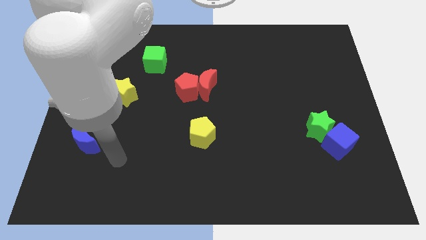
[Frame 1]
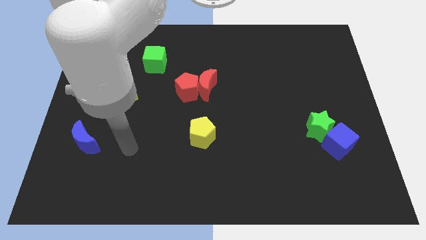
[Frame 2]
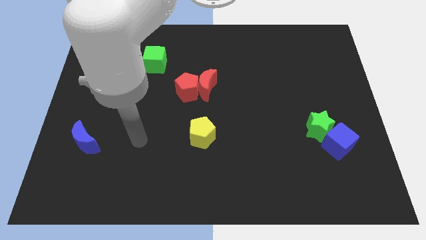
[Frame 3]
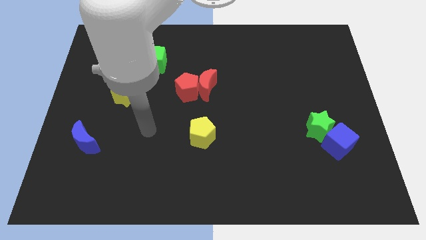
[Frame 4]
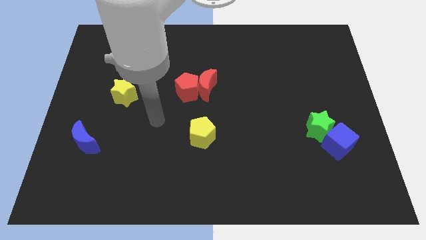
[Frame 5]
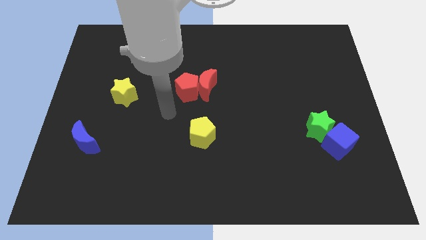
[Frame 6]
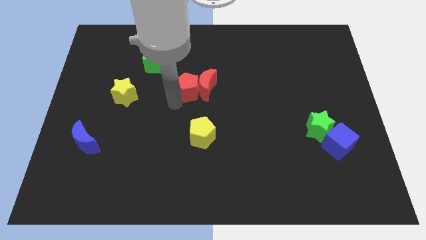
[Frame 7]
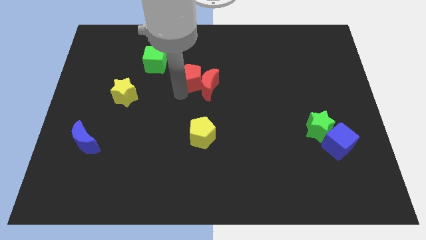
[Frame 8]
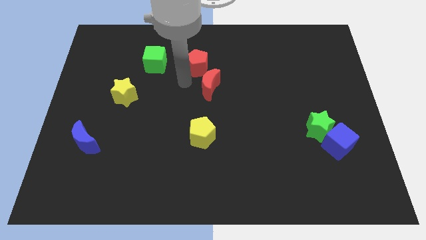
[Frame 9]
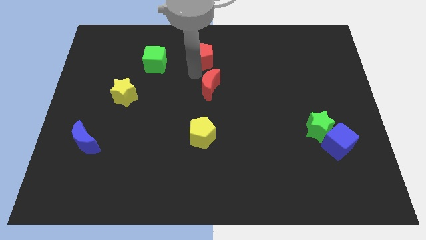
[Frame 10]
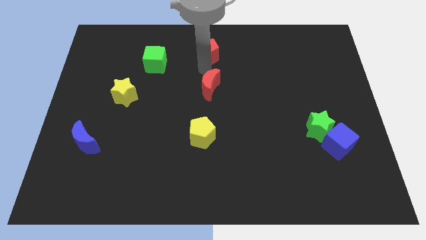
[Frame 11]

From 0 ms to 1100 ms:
separate the red moon from the red pentagon

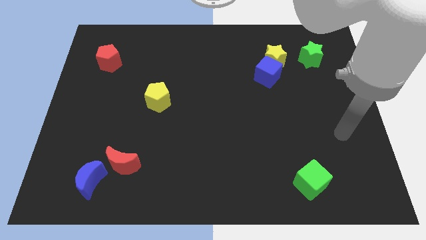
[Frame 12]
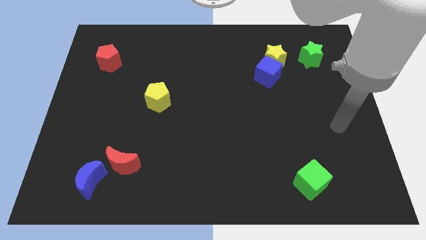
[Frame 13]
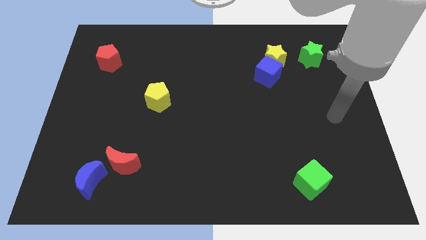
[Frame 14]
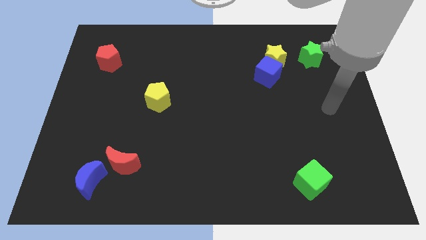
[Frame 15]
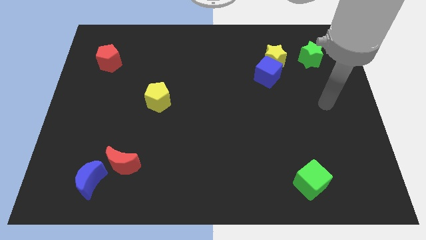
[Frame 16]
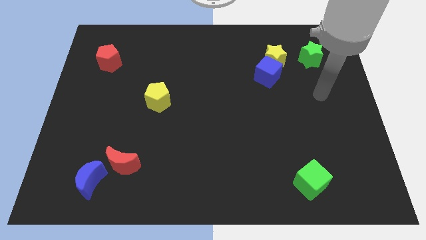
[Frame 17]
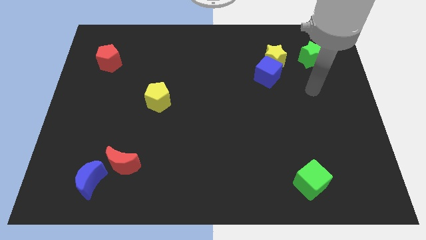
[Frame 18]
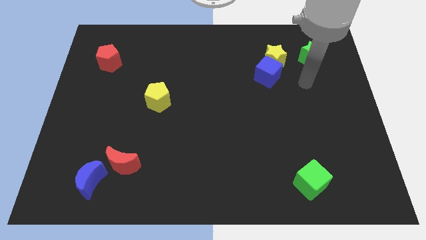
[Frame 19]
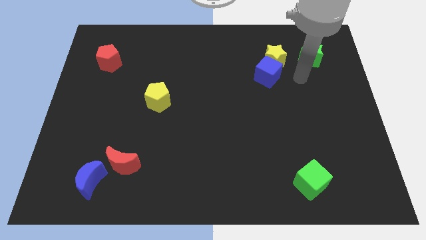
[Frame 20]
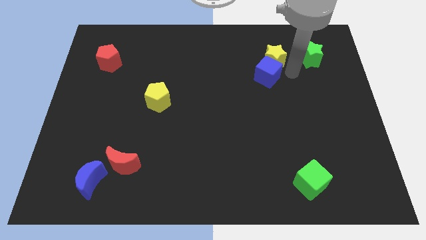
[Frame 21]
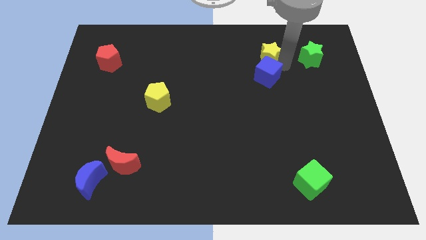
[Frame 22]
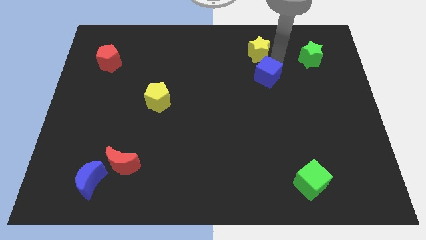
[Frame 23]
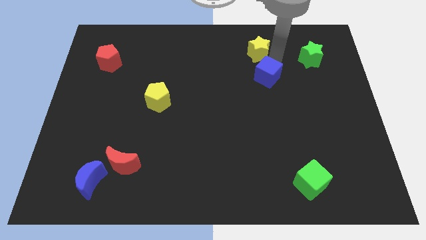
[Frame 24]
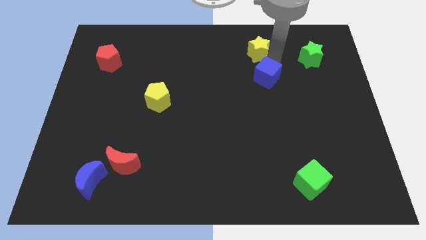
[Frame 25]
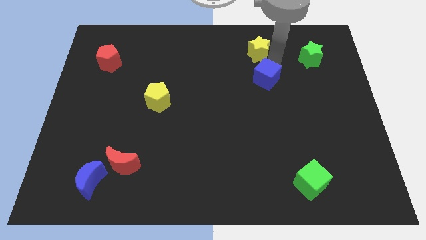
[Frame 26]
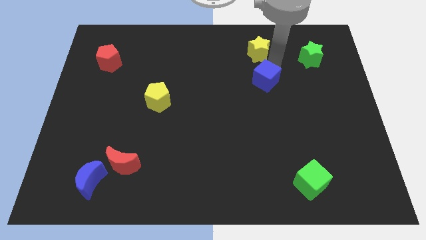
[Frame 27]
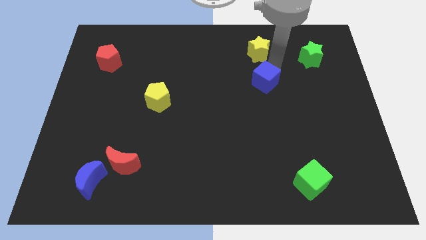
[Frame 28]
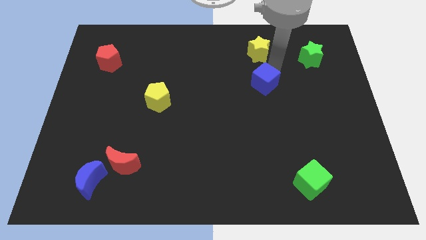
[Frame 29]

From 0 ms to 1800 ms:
separate the blue cube from the yellow star

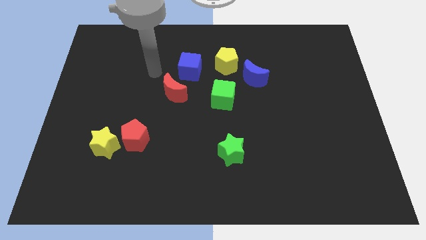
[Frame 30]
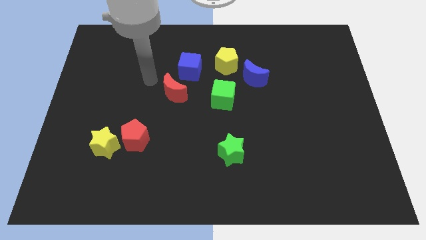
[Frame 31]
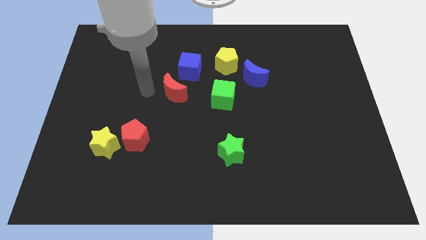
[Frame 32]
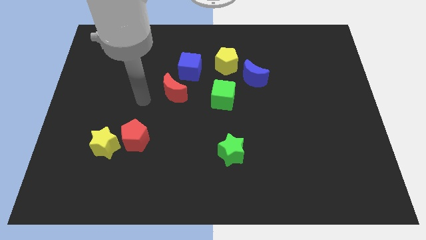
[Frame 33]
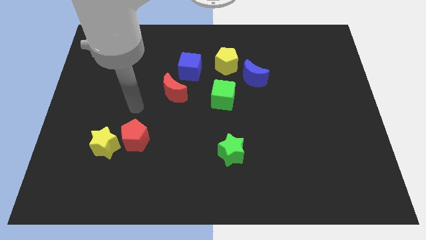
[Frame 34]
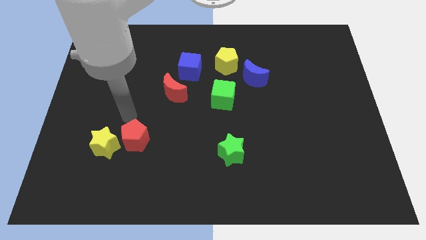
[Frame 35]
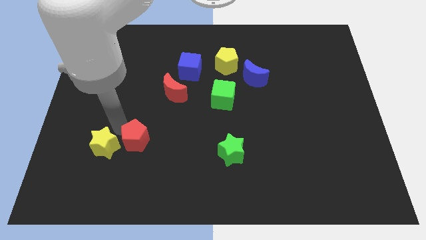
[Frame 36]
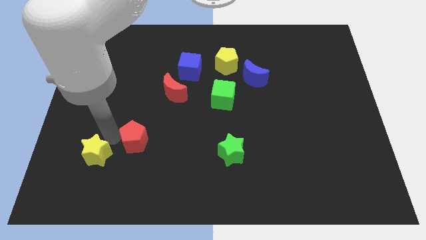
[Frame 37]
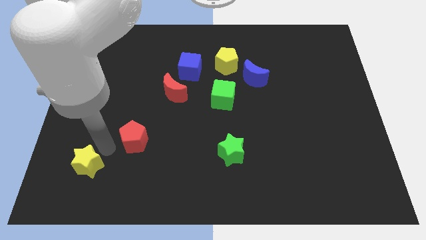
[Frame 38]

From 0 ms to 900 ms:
move the red pentagon away from the yellow star

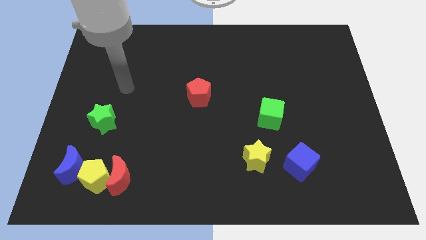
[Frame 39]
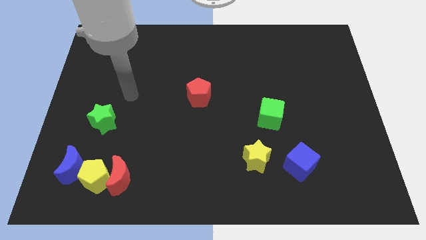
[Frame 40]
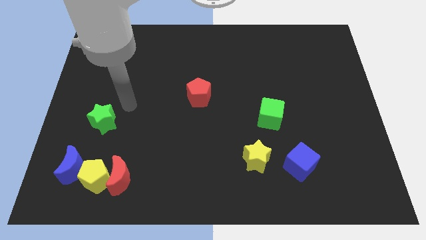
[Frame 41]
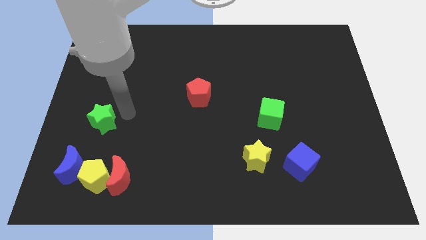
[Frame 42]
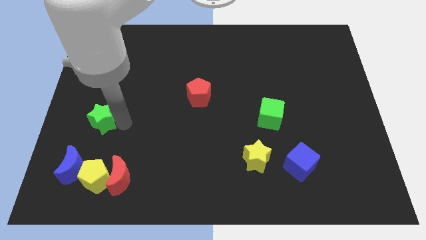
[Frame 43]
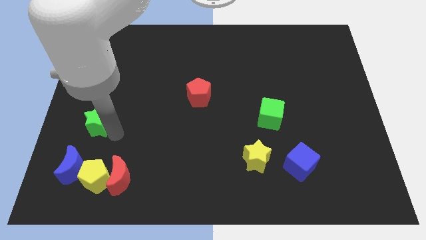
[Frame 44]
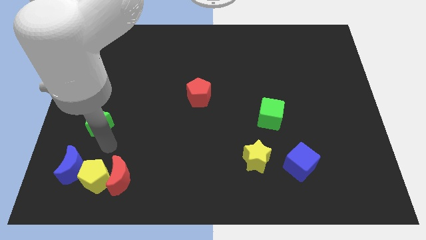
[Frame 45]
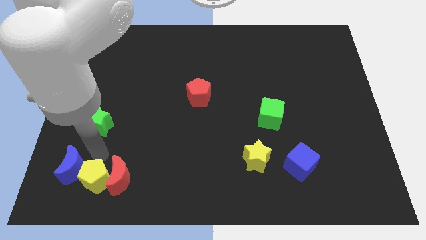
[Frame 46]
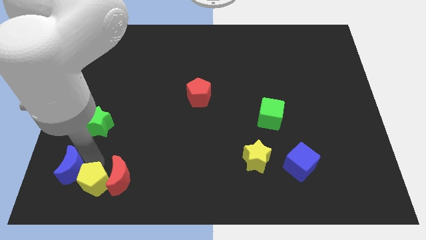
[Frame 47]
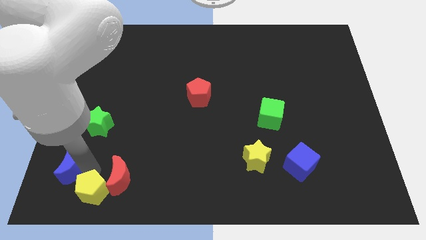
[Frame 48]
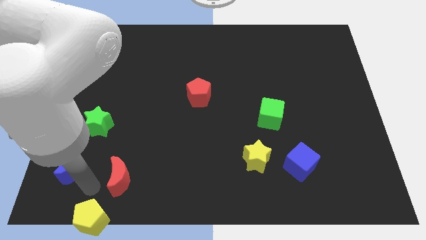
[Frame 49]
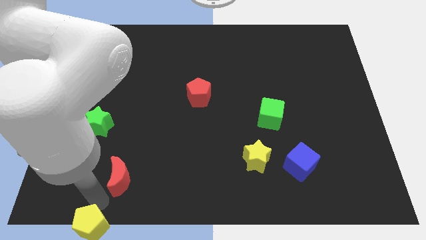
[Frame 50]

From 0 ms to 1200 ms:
move the red moon away from the yellow pentagon

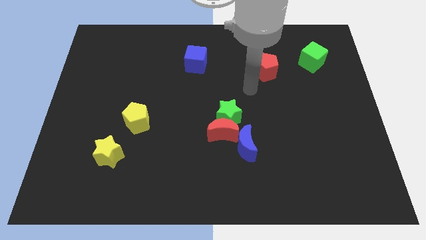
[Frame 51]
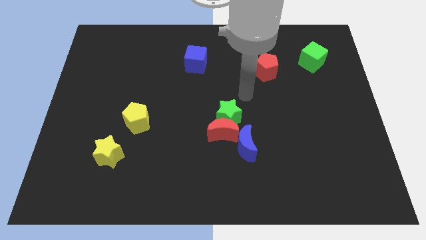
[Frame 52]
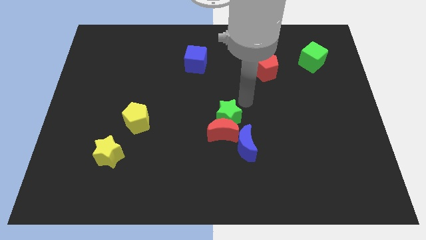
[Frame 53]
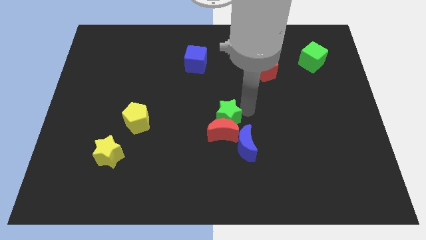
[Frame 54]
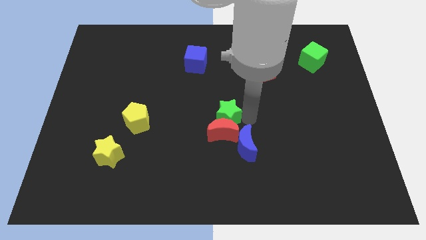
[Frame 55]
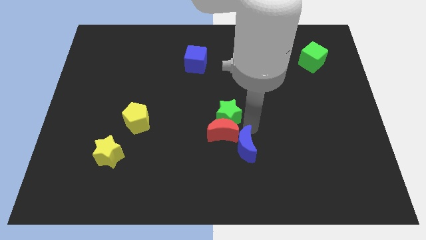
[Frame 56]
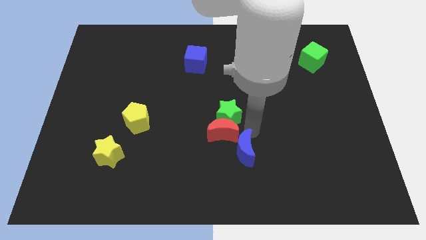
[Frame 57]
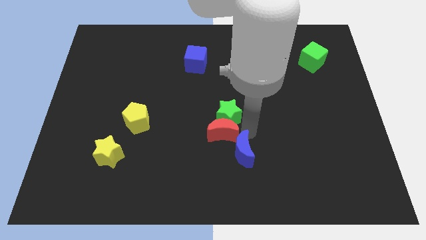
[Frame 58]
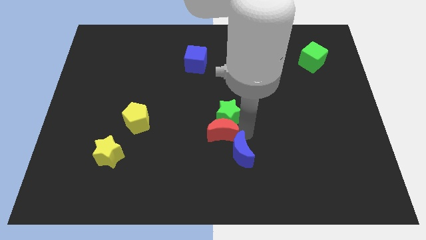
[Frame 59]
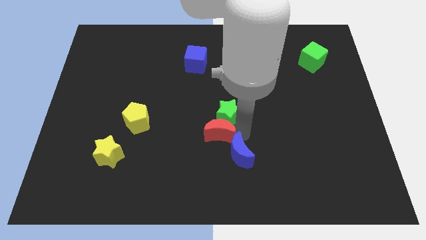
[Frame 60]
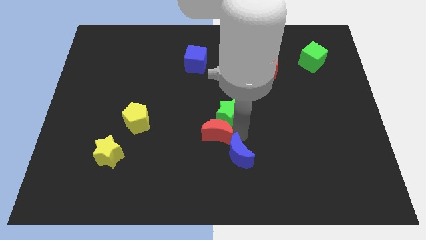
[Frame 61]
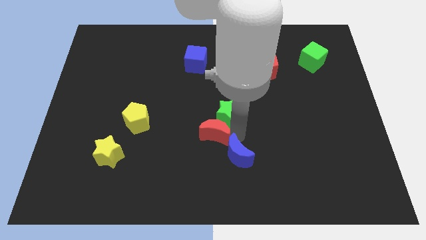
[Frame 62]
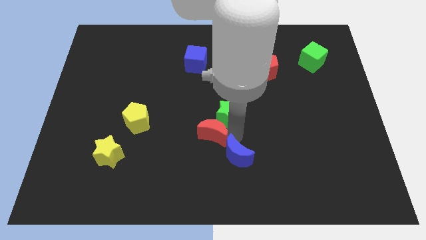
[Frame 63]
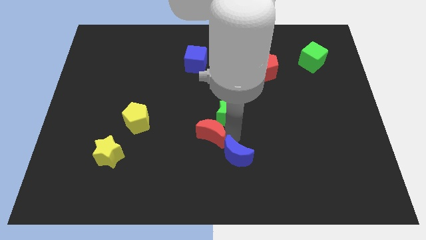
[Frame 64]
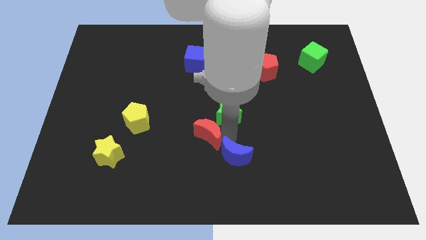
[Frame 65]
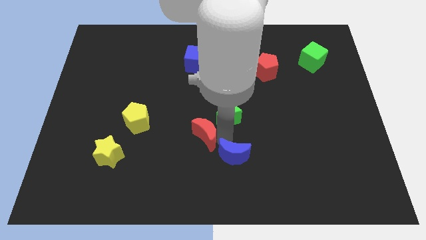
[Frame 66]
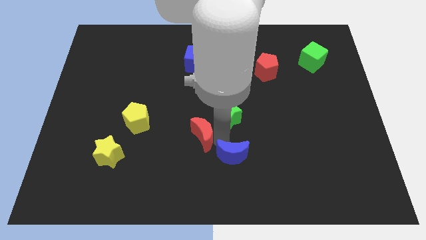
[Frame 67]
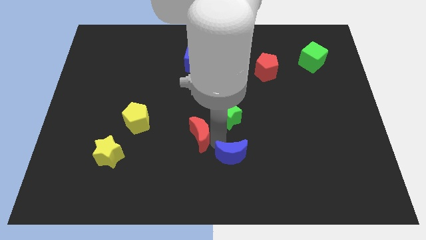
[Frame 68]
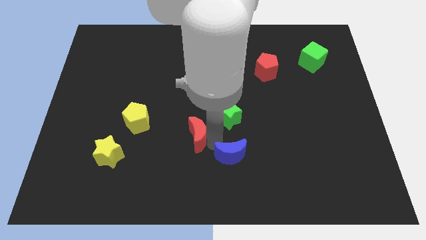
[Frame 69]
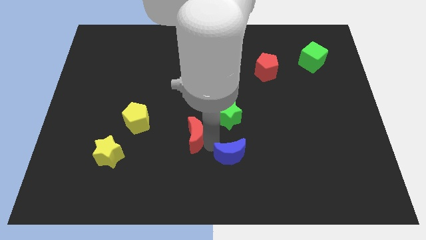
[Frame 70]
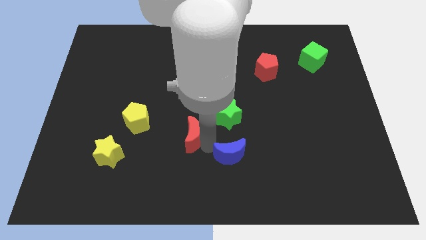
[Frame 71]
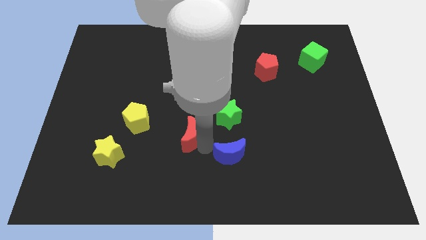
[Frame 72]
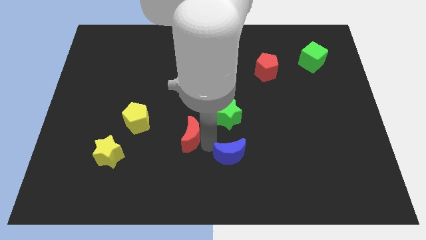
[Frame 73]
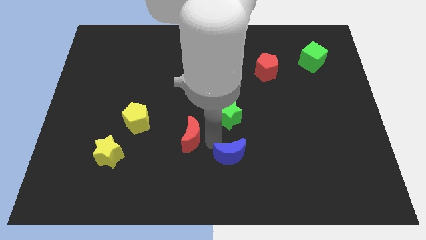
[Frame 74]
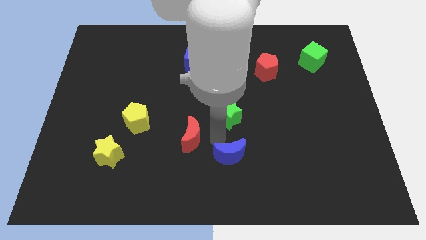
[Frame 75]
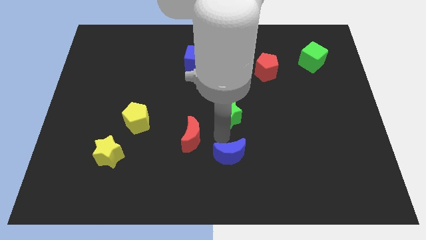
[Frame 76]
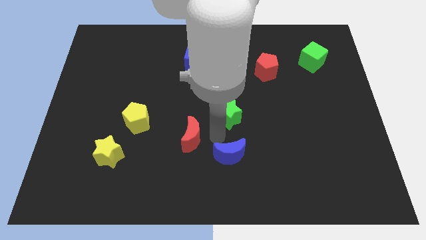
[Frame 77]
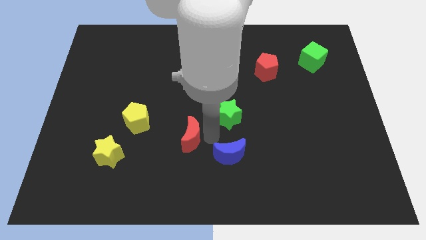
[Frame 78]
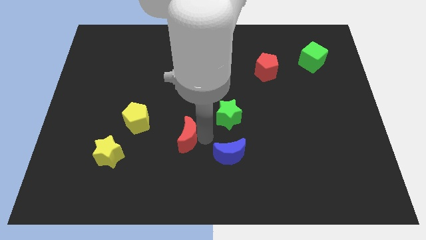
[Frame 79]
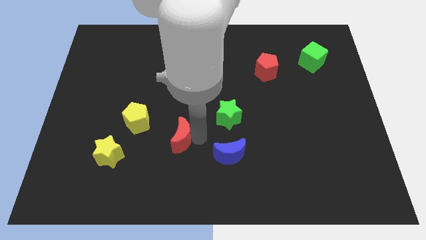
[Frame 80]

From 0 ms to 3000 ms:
move the red moon away from the green star and blue moon

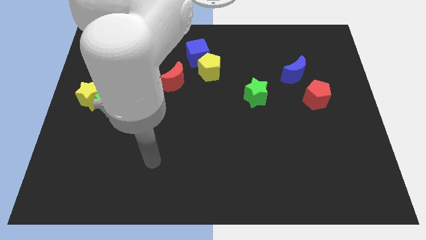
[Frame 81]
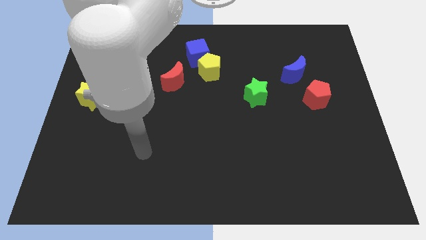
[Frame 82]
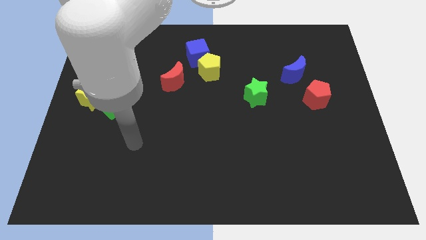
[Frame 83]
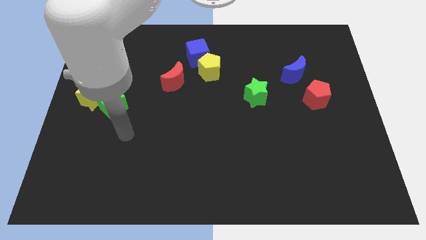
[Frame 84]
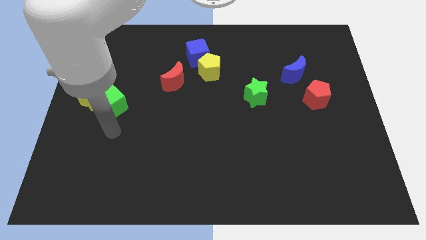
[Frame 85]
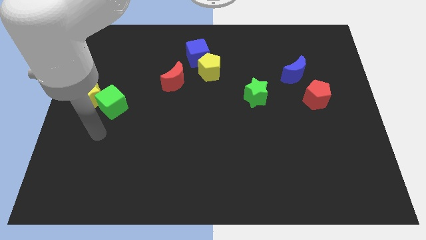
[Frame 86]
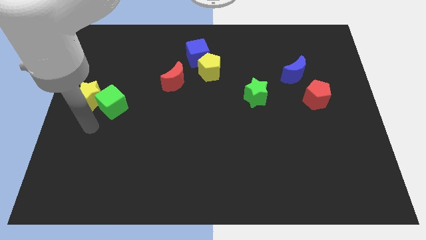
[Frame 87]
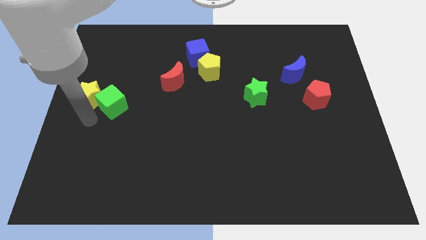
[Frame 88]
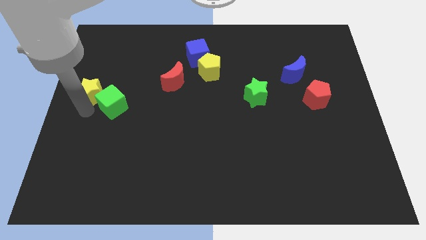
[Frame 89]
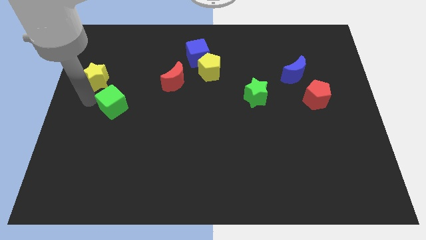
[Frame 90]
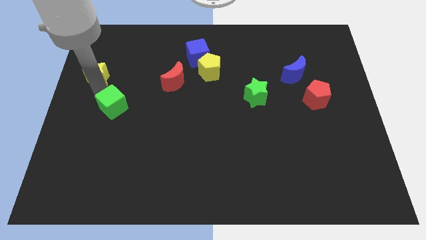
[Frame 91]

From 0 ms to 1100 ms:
move the green cube away from the yellow star

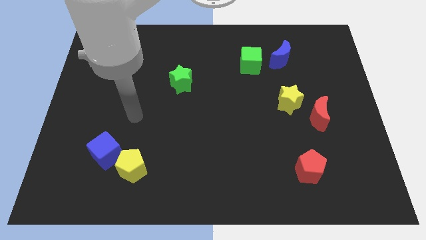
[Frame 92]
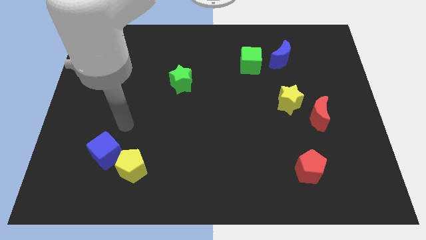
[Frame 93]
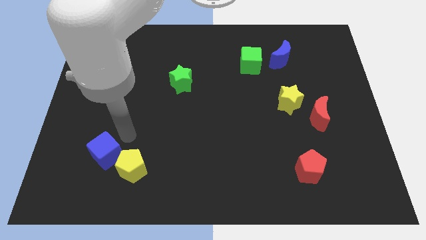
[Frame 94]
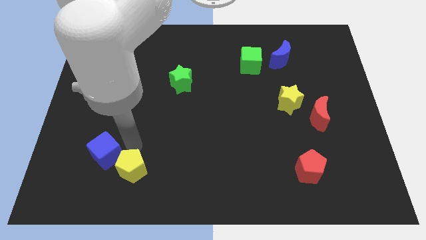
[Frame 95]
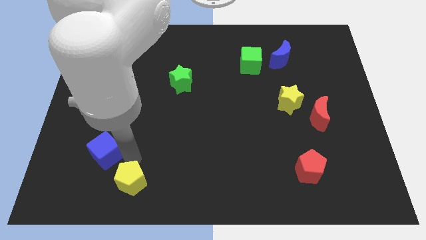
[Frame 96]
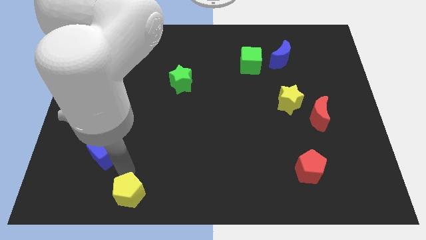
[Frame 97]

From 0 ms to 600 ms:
move the blue cube away from the yellow pentagon
